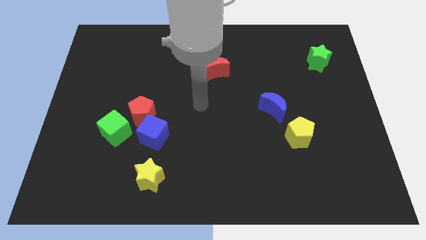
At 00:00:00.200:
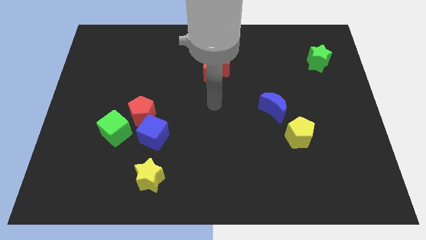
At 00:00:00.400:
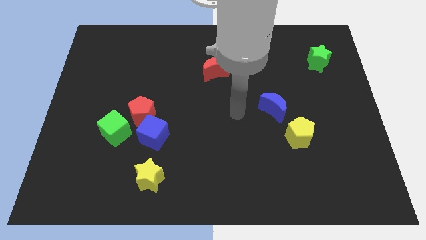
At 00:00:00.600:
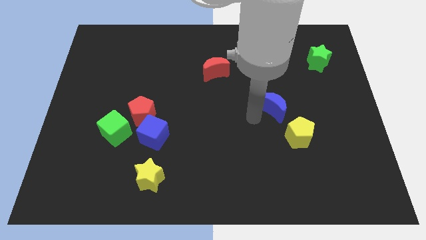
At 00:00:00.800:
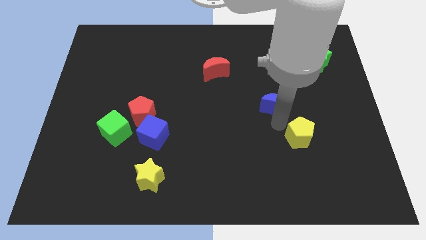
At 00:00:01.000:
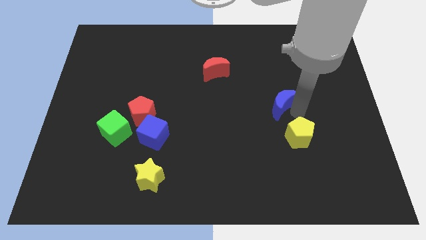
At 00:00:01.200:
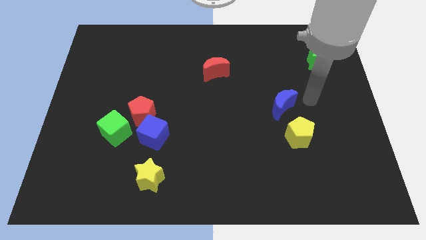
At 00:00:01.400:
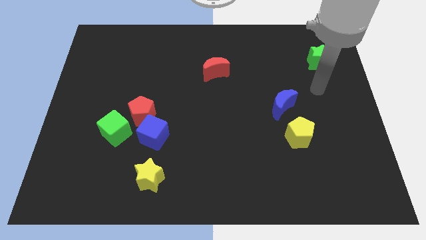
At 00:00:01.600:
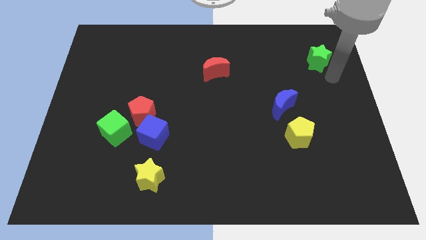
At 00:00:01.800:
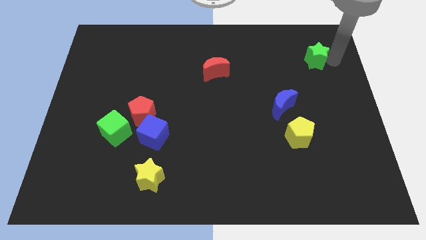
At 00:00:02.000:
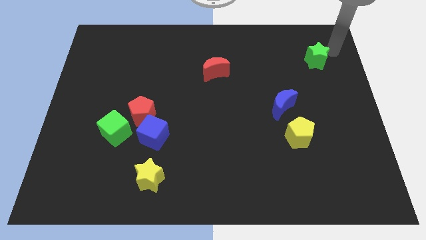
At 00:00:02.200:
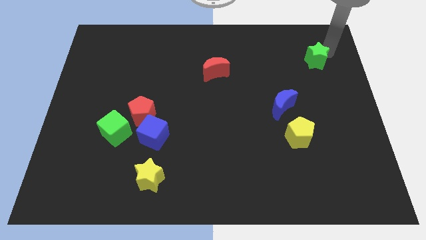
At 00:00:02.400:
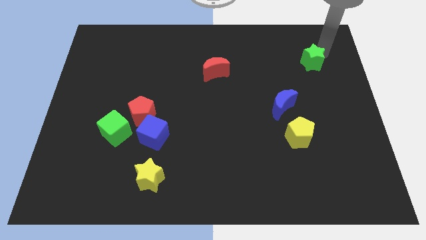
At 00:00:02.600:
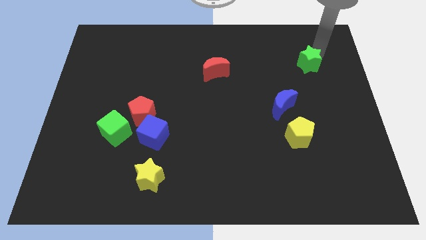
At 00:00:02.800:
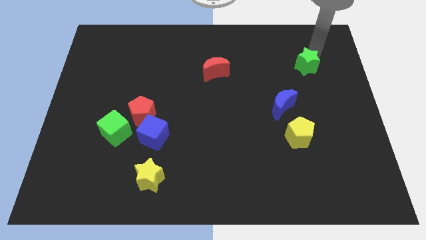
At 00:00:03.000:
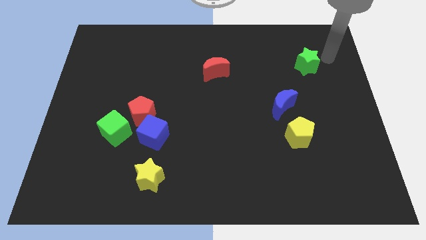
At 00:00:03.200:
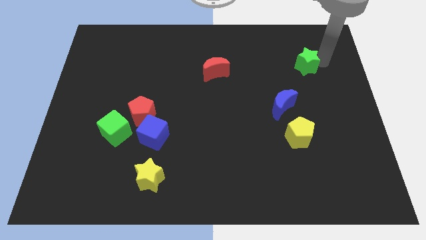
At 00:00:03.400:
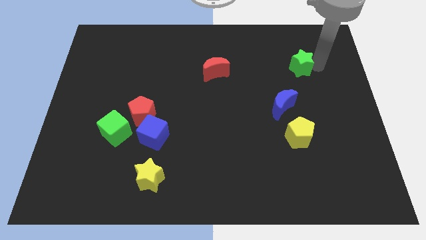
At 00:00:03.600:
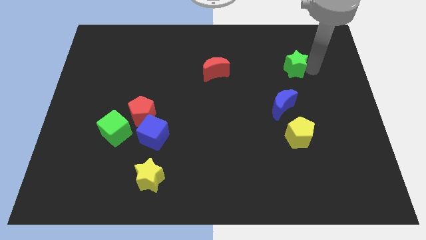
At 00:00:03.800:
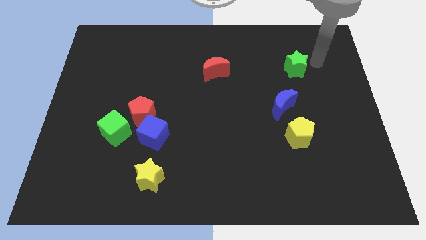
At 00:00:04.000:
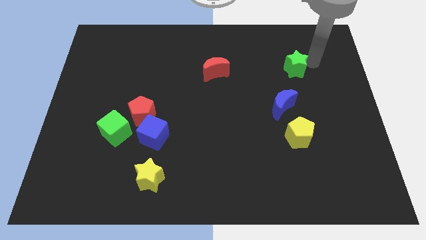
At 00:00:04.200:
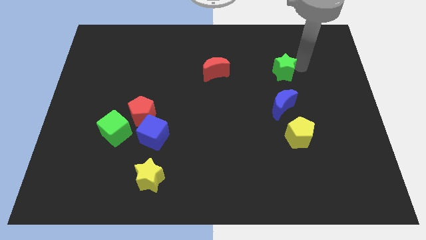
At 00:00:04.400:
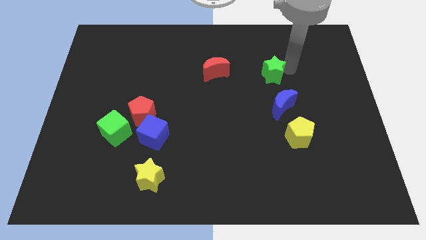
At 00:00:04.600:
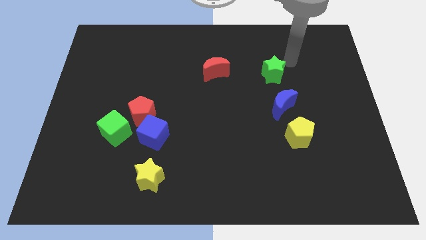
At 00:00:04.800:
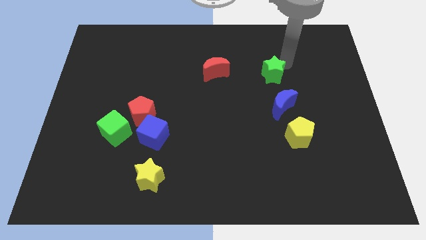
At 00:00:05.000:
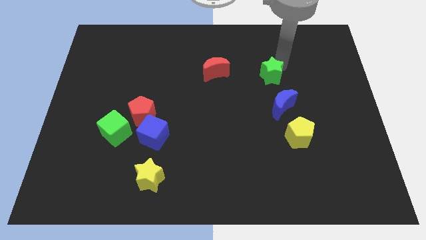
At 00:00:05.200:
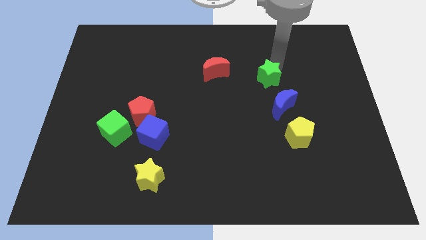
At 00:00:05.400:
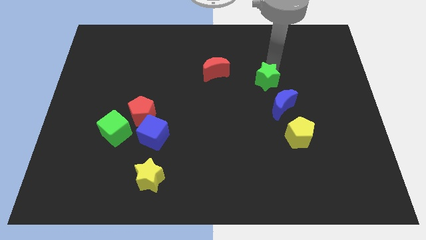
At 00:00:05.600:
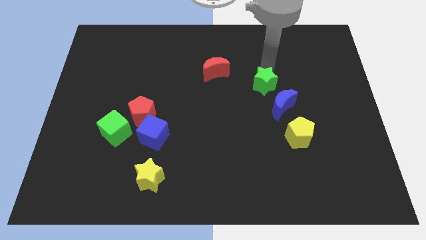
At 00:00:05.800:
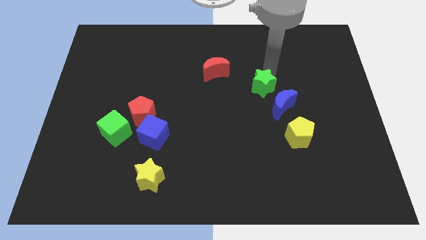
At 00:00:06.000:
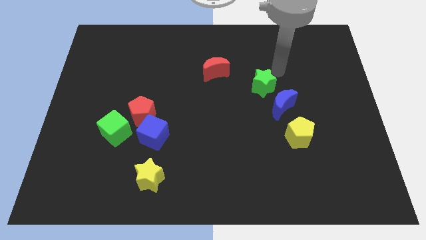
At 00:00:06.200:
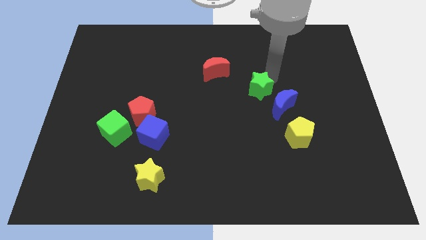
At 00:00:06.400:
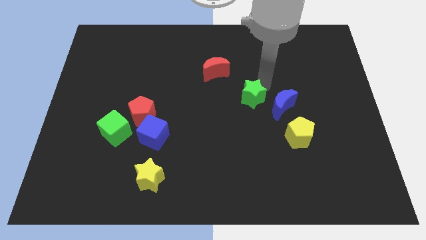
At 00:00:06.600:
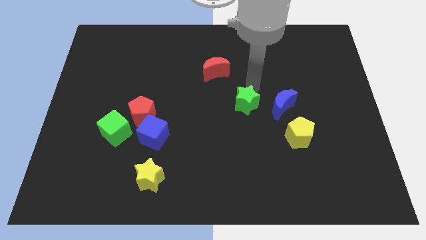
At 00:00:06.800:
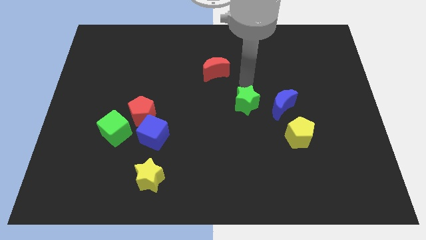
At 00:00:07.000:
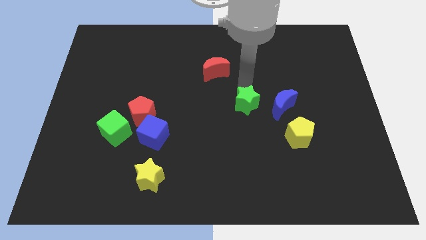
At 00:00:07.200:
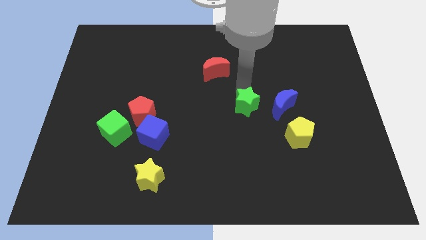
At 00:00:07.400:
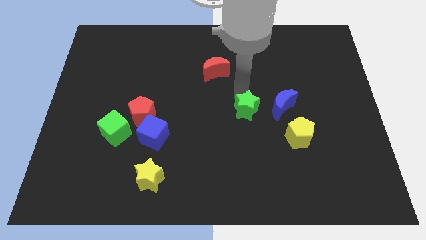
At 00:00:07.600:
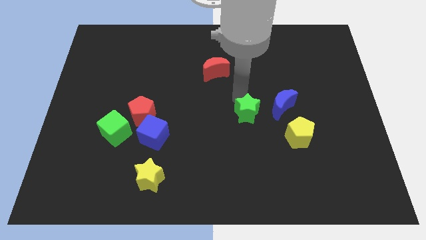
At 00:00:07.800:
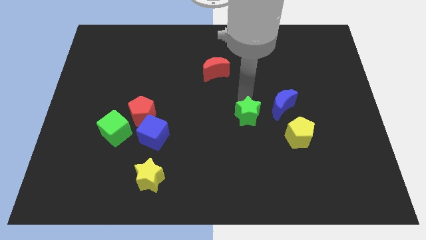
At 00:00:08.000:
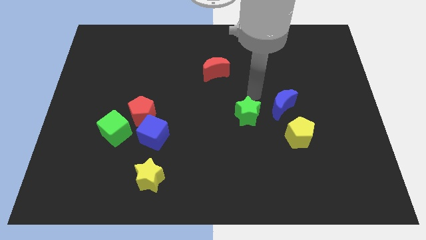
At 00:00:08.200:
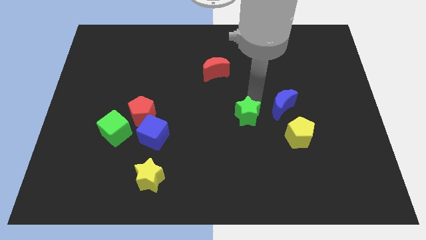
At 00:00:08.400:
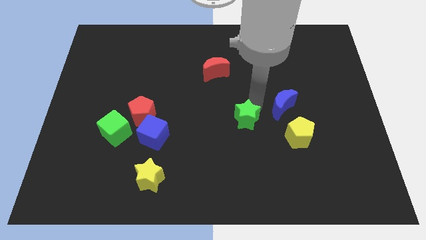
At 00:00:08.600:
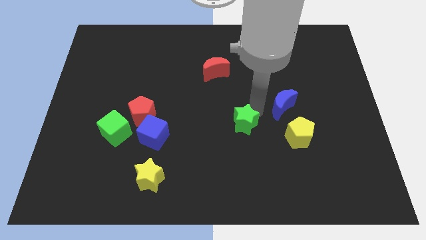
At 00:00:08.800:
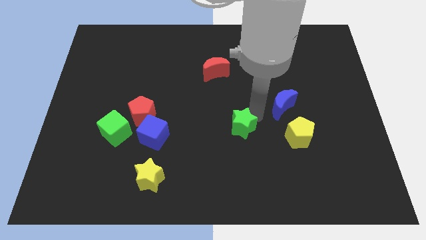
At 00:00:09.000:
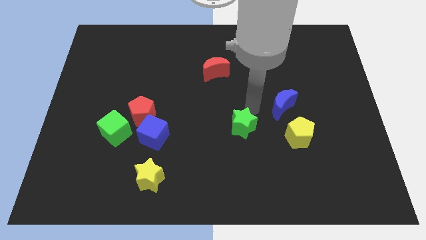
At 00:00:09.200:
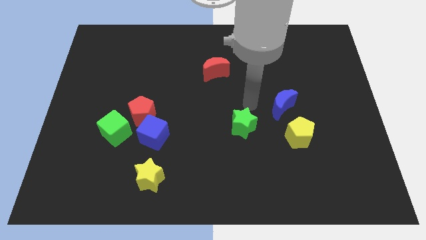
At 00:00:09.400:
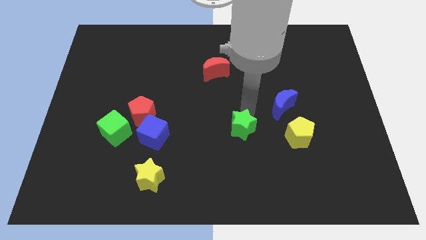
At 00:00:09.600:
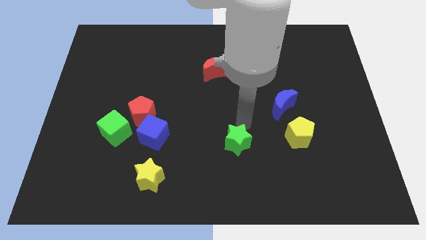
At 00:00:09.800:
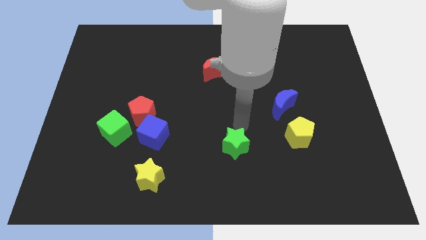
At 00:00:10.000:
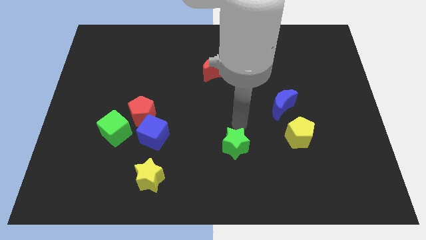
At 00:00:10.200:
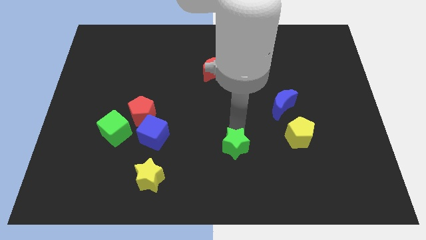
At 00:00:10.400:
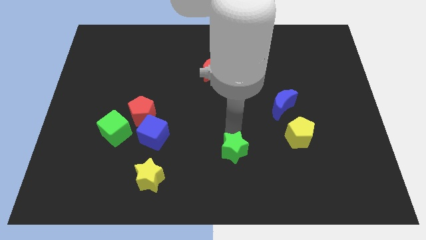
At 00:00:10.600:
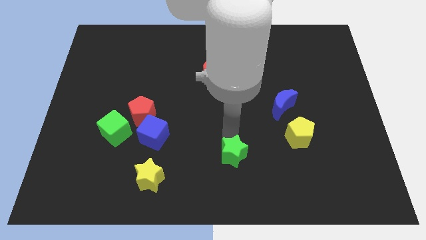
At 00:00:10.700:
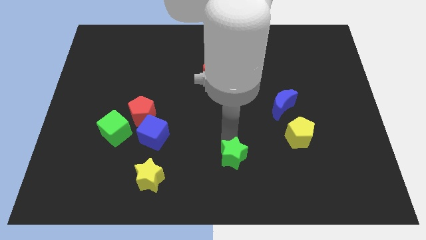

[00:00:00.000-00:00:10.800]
move the green star to the bottom side

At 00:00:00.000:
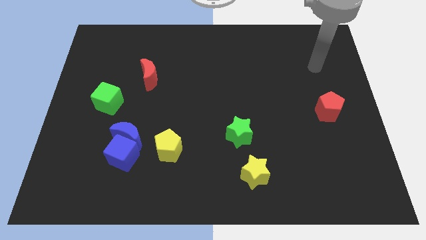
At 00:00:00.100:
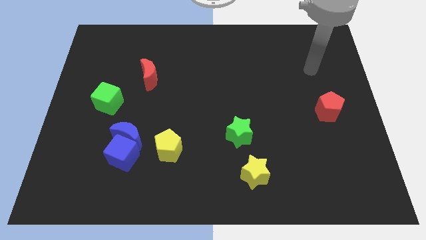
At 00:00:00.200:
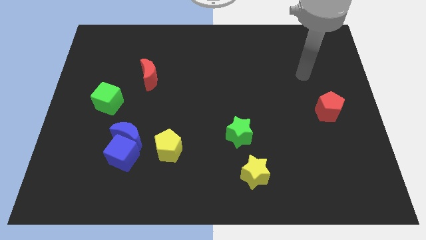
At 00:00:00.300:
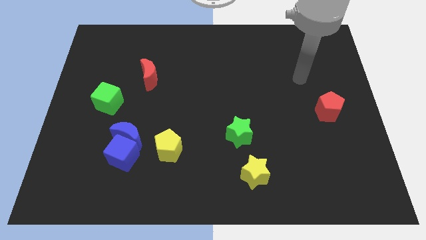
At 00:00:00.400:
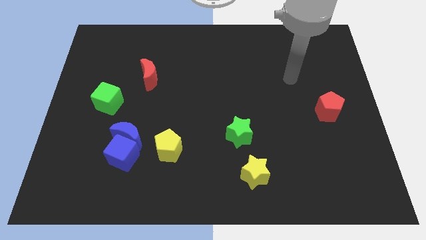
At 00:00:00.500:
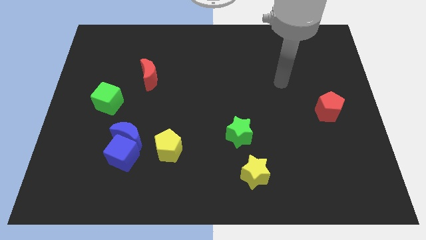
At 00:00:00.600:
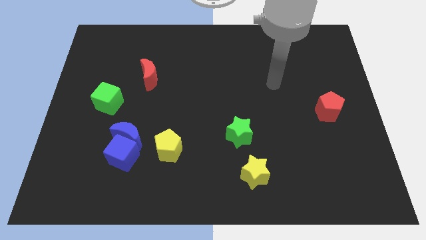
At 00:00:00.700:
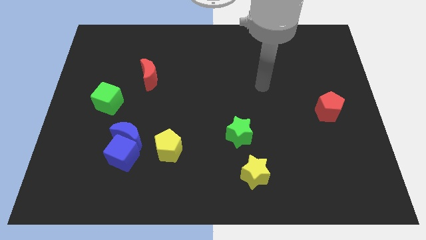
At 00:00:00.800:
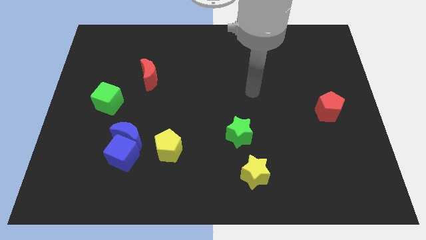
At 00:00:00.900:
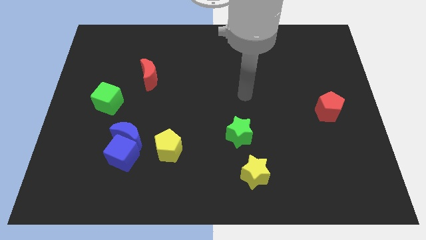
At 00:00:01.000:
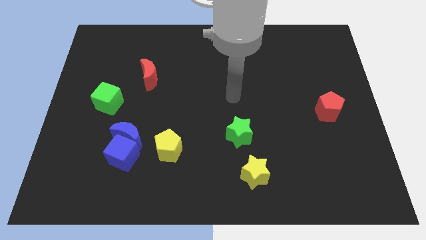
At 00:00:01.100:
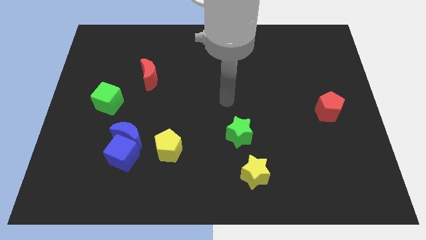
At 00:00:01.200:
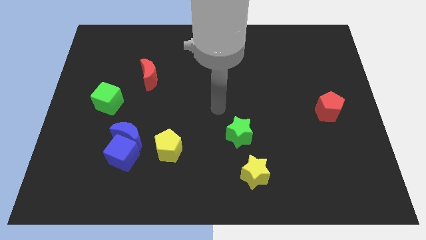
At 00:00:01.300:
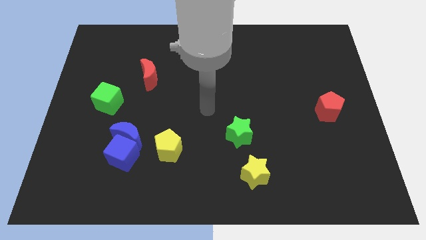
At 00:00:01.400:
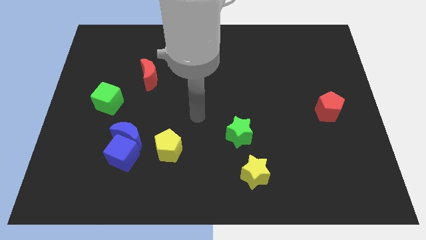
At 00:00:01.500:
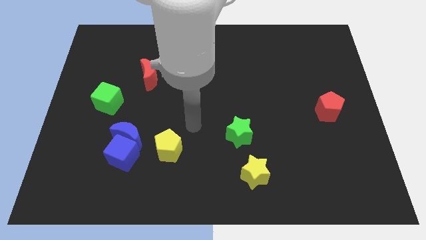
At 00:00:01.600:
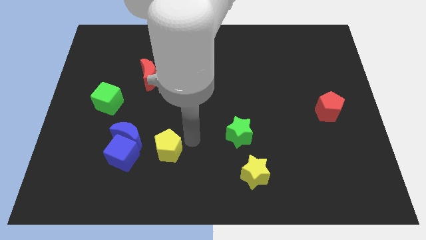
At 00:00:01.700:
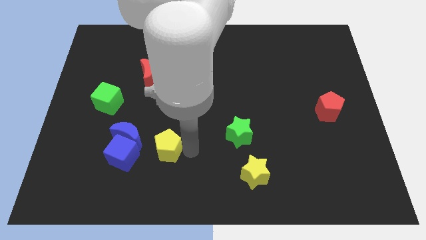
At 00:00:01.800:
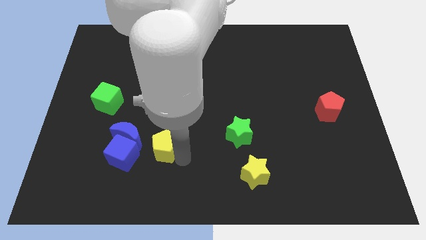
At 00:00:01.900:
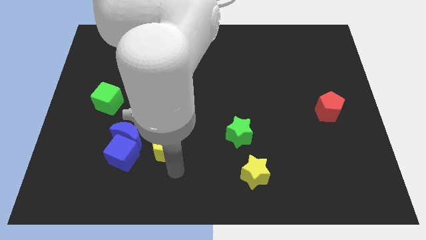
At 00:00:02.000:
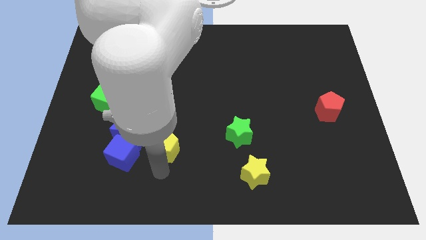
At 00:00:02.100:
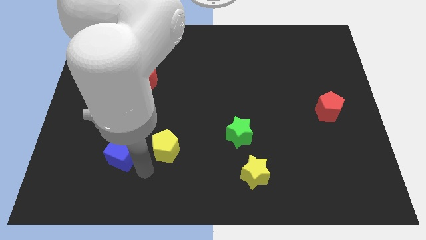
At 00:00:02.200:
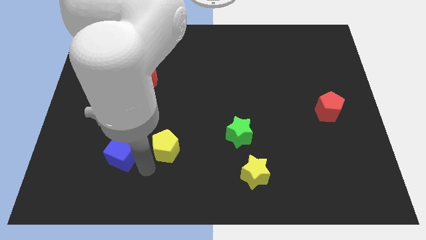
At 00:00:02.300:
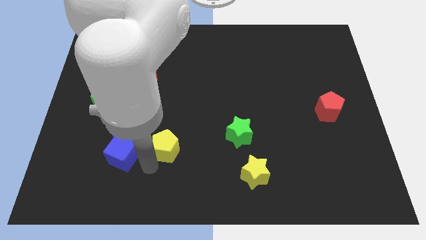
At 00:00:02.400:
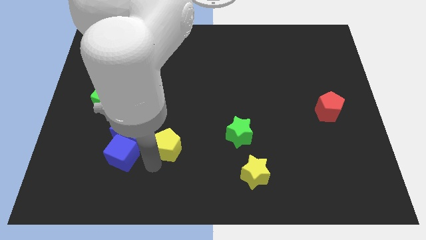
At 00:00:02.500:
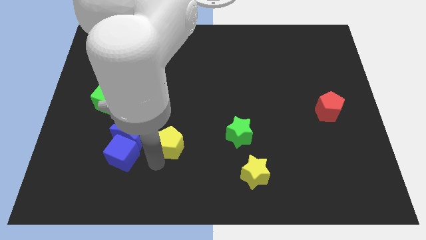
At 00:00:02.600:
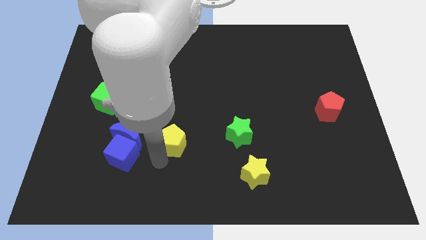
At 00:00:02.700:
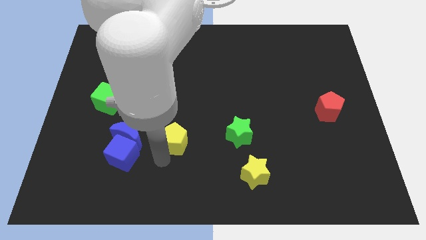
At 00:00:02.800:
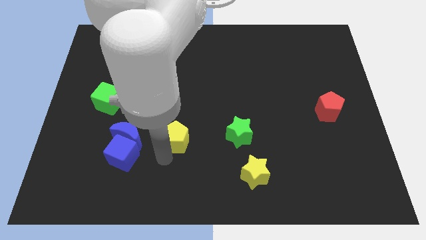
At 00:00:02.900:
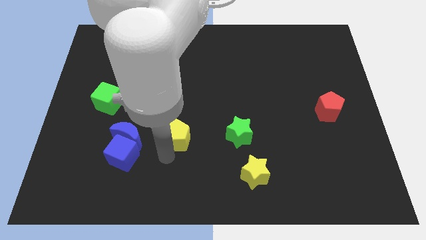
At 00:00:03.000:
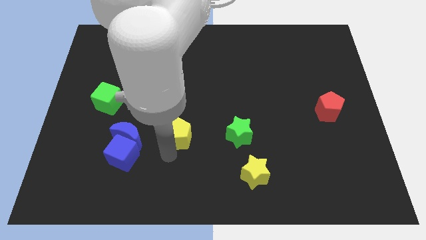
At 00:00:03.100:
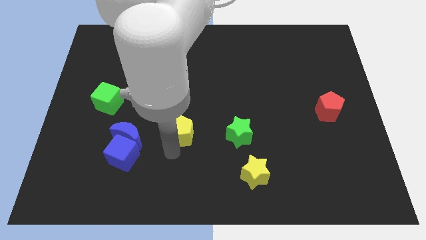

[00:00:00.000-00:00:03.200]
put the yellow pentagon to the middle
